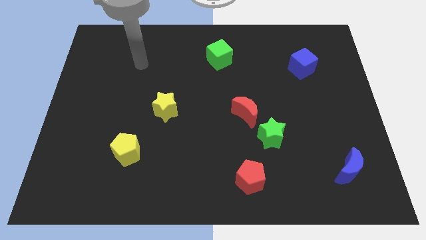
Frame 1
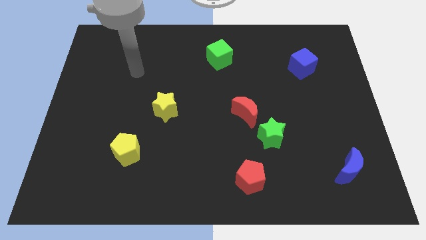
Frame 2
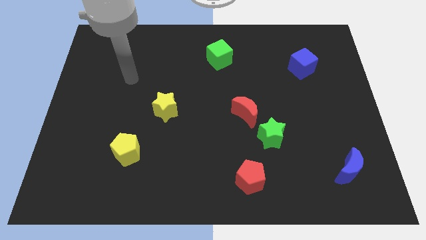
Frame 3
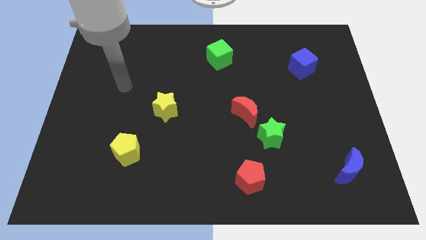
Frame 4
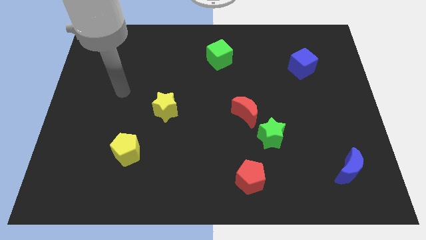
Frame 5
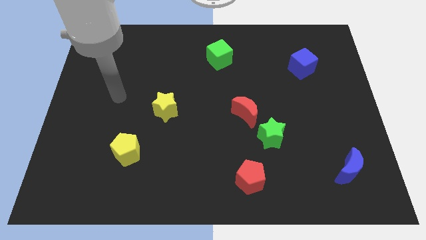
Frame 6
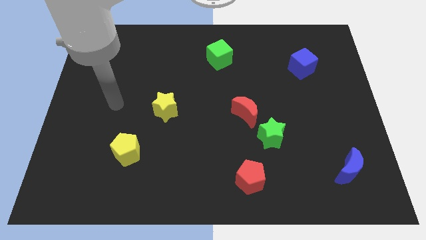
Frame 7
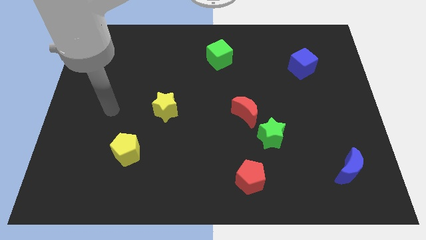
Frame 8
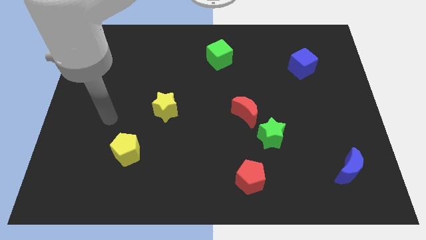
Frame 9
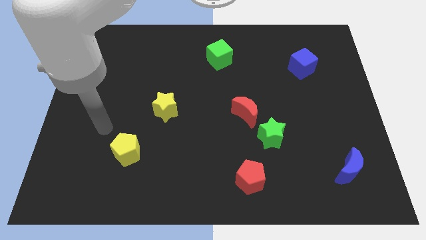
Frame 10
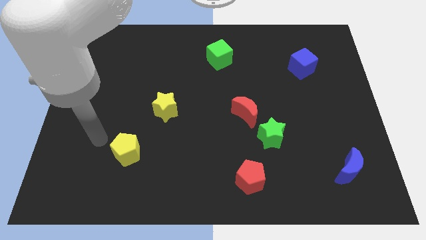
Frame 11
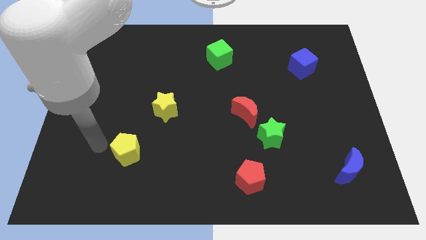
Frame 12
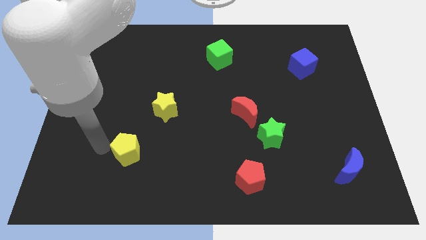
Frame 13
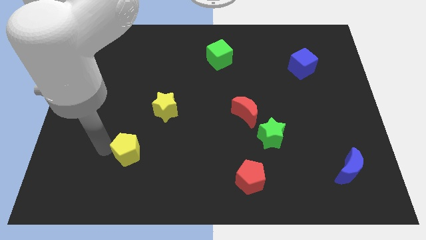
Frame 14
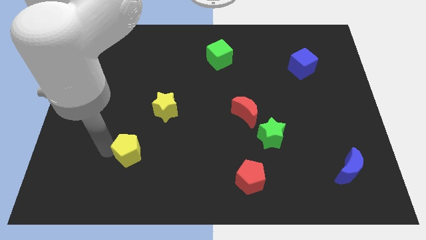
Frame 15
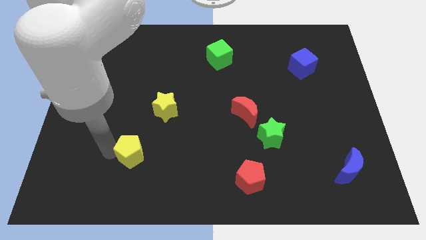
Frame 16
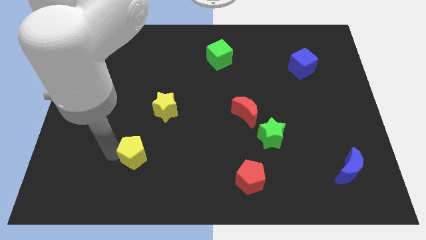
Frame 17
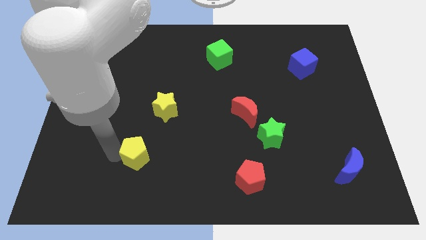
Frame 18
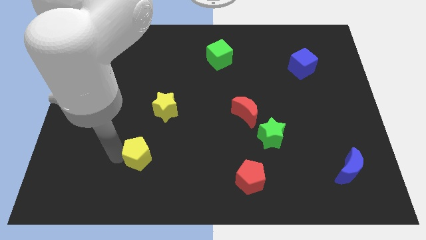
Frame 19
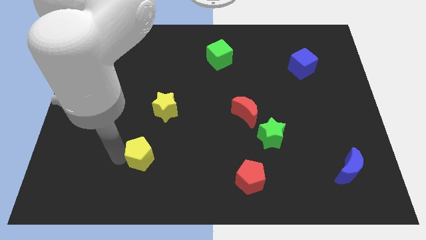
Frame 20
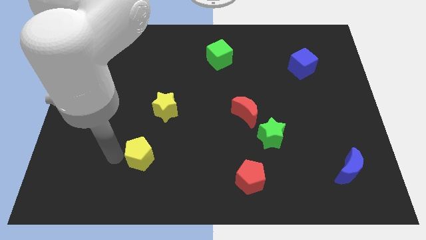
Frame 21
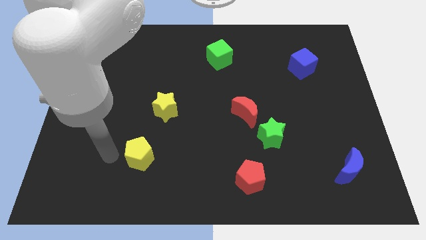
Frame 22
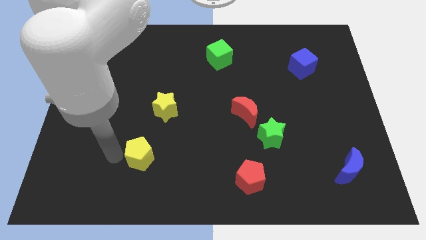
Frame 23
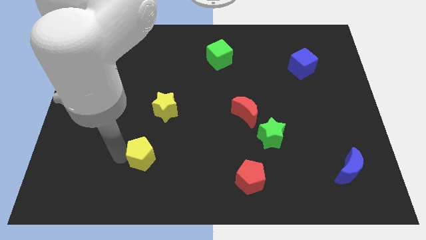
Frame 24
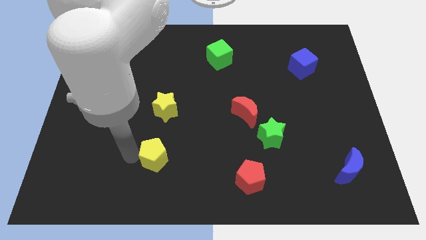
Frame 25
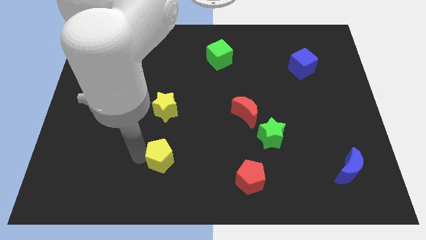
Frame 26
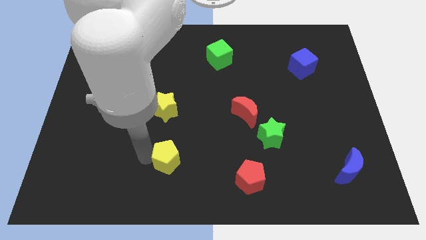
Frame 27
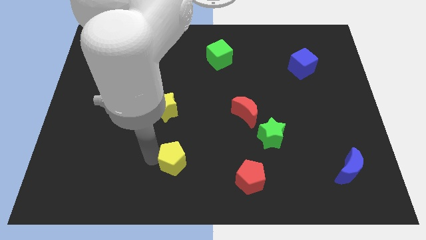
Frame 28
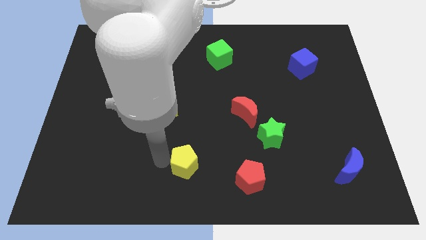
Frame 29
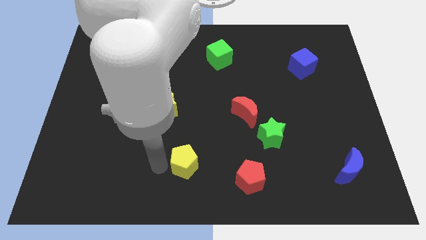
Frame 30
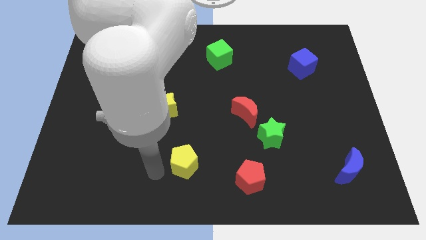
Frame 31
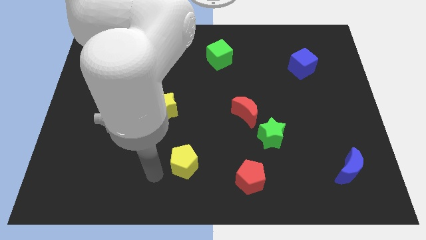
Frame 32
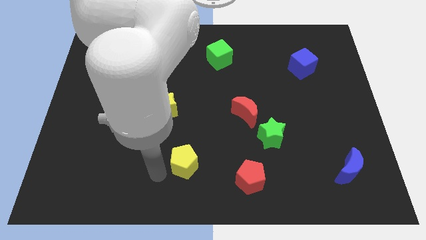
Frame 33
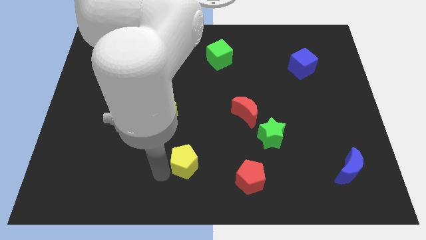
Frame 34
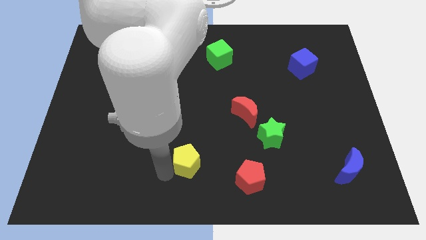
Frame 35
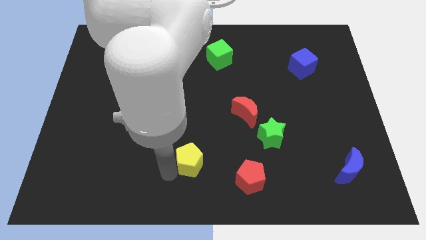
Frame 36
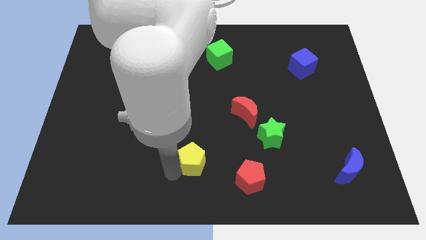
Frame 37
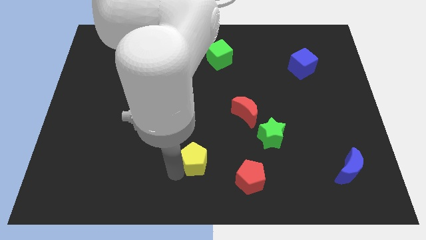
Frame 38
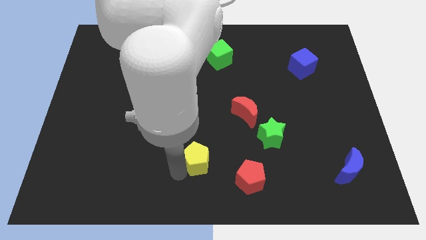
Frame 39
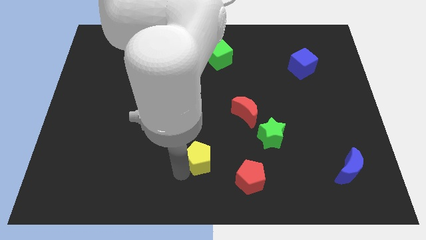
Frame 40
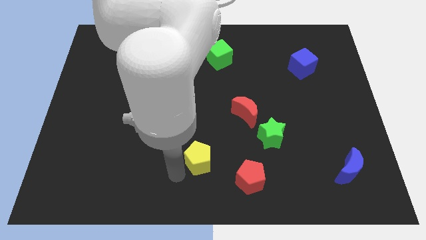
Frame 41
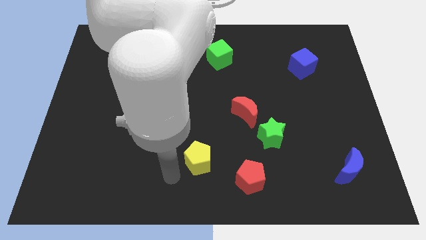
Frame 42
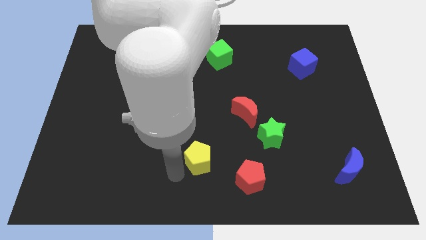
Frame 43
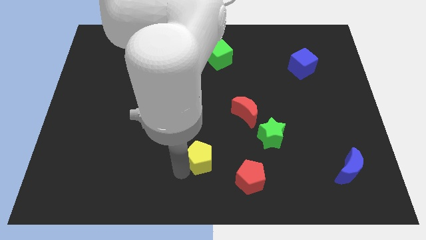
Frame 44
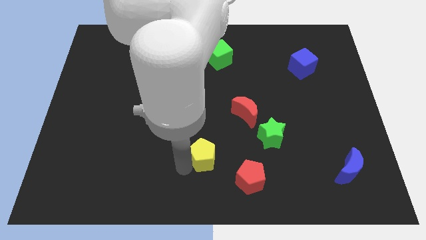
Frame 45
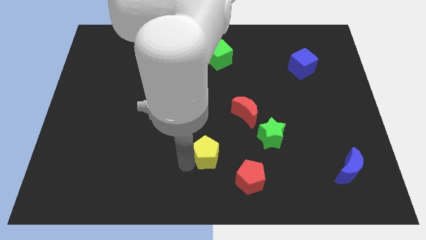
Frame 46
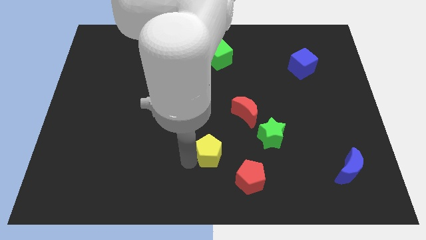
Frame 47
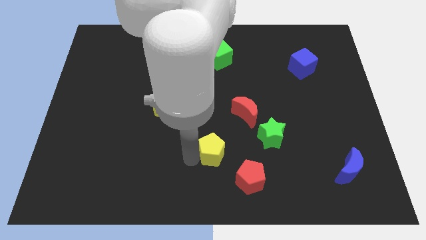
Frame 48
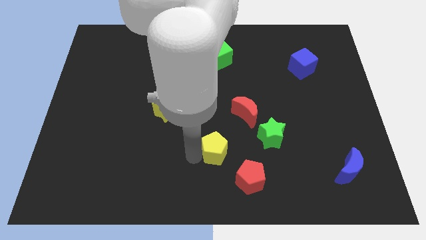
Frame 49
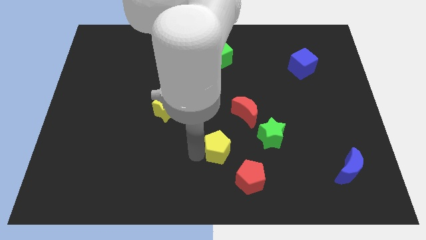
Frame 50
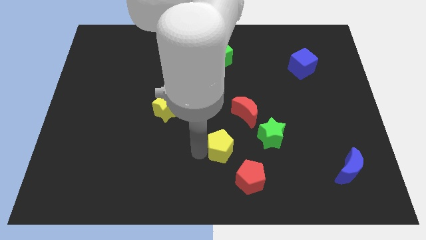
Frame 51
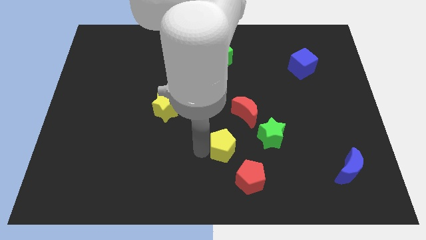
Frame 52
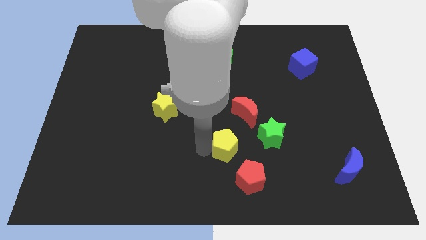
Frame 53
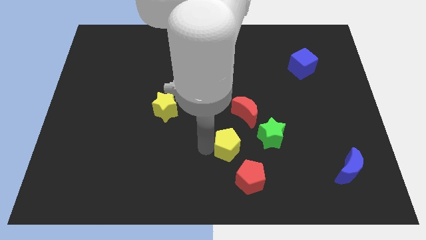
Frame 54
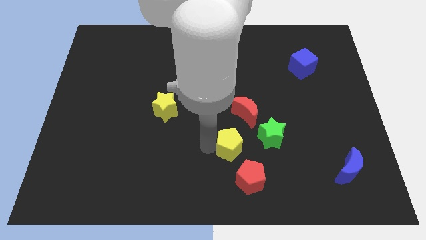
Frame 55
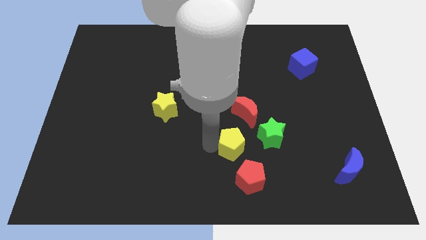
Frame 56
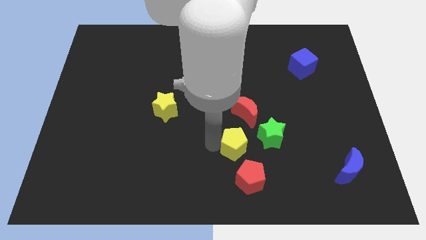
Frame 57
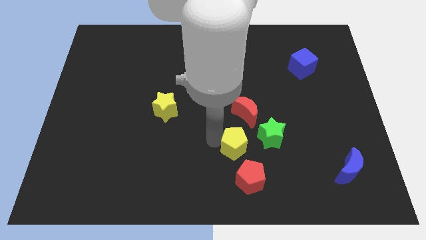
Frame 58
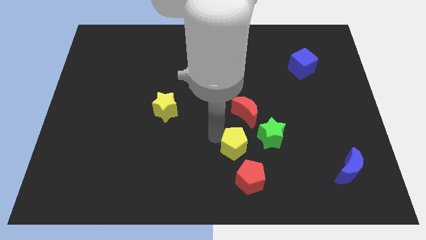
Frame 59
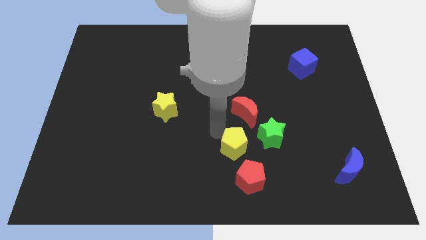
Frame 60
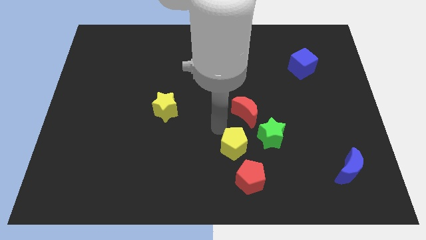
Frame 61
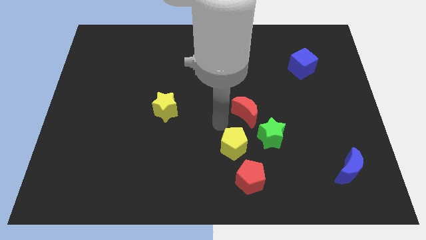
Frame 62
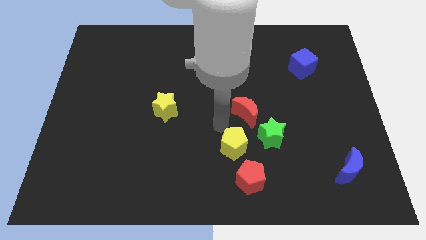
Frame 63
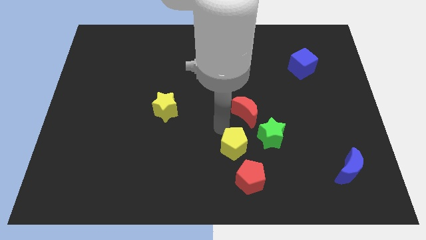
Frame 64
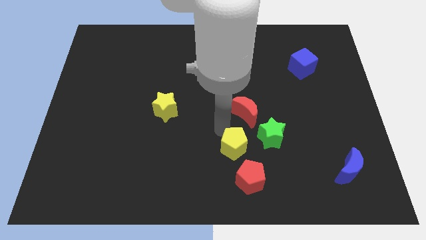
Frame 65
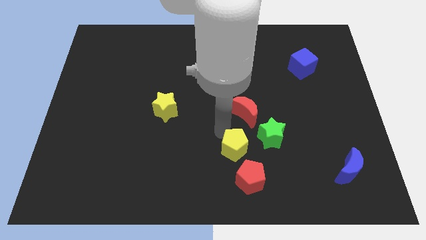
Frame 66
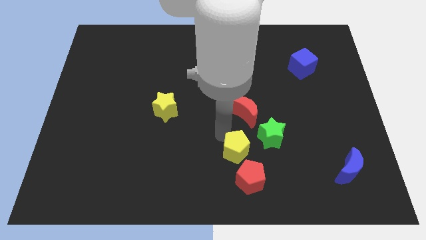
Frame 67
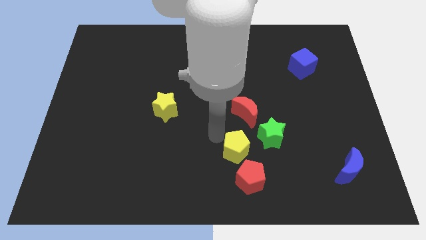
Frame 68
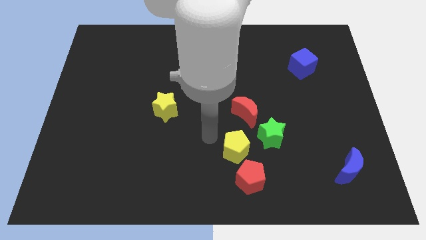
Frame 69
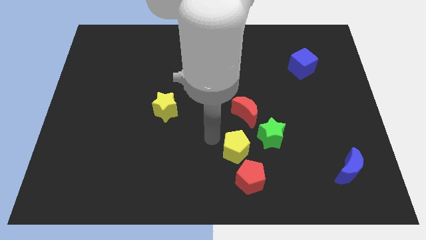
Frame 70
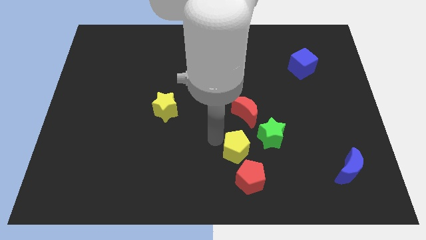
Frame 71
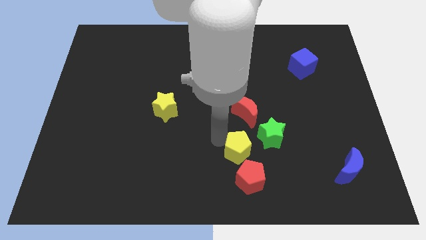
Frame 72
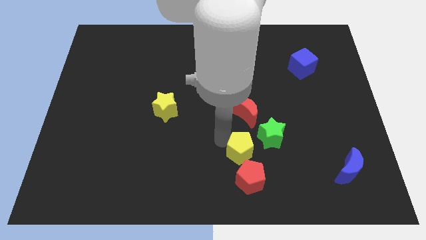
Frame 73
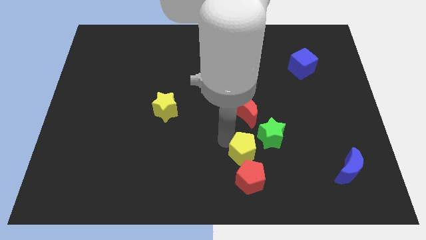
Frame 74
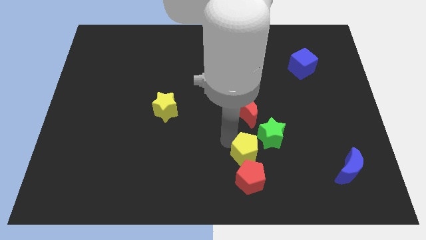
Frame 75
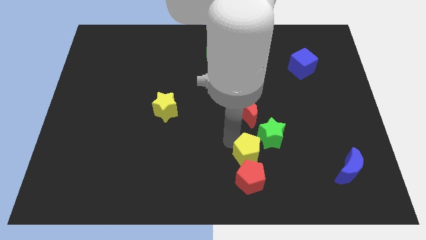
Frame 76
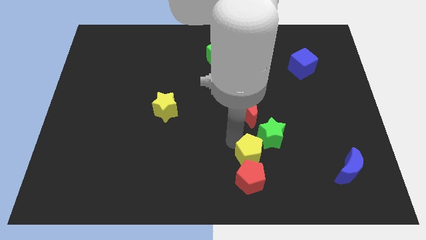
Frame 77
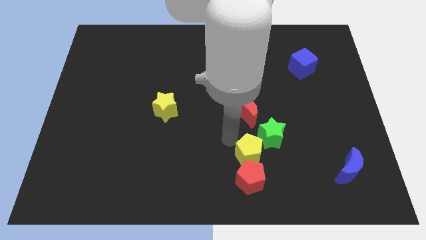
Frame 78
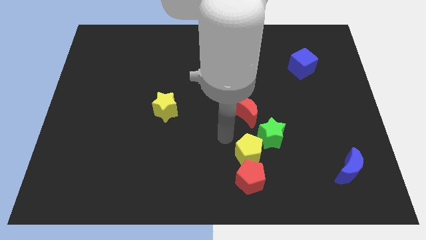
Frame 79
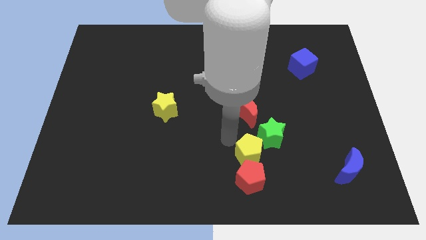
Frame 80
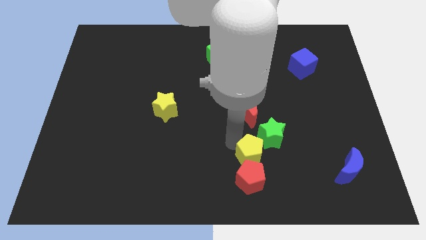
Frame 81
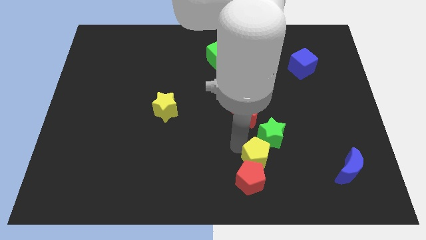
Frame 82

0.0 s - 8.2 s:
move the yellow pentagon to the bottom of the green star
